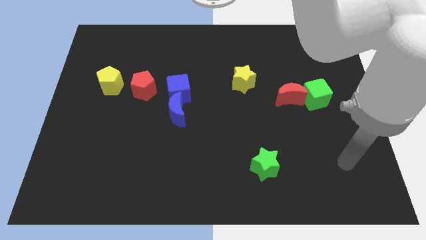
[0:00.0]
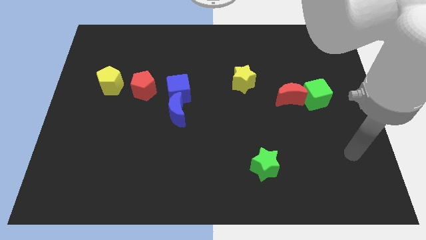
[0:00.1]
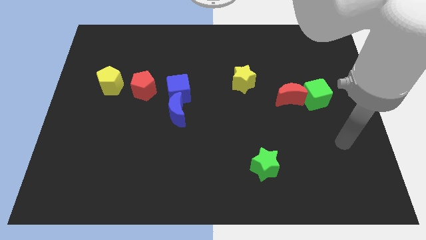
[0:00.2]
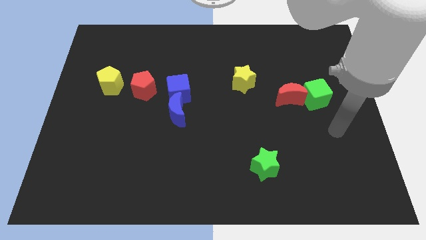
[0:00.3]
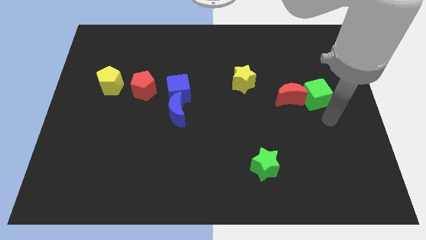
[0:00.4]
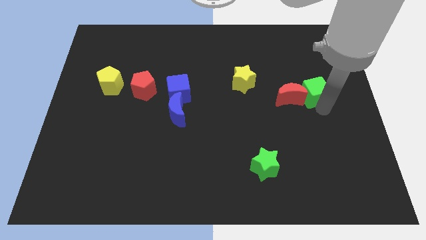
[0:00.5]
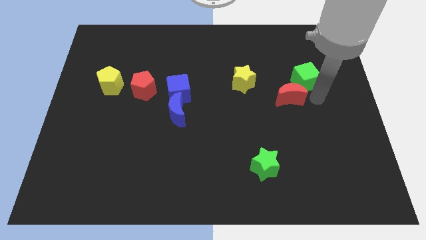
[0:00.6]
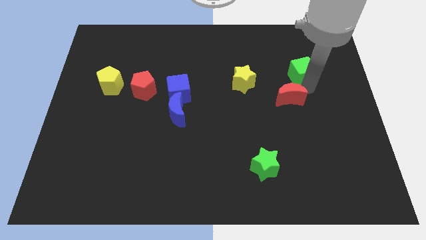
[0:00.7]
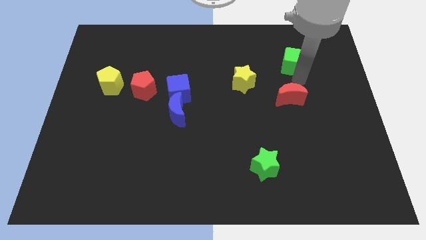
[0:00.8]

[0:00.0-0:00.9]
pull the red moon apart from the green cube

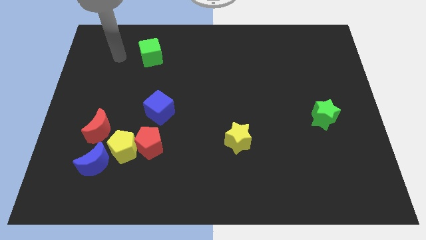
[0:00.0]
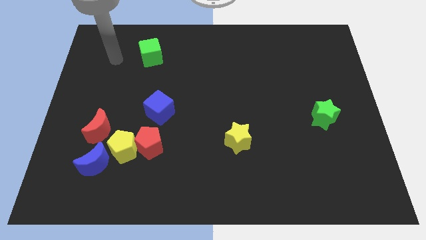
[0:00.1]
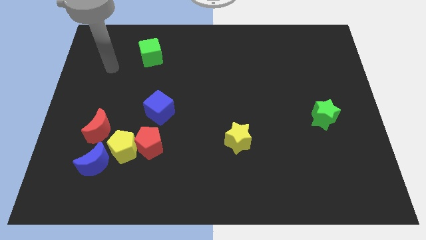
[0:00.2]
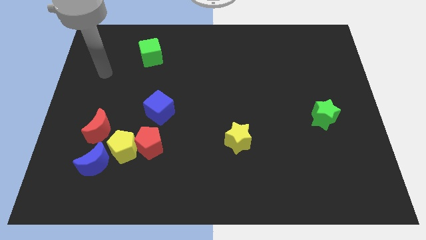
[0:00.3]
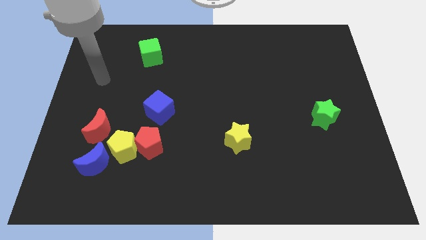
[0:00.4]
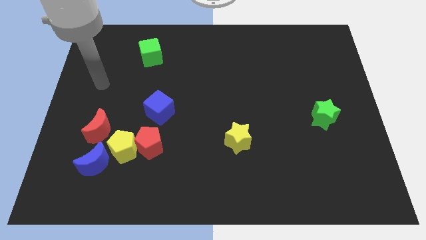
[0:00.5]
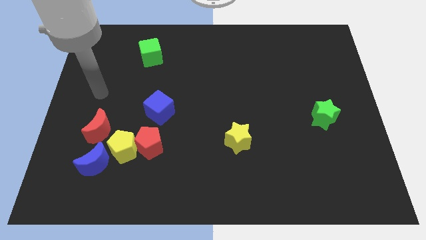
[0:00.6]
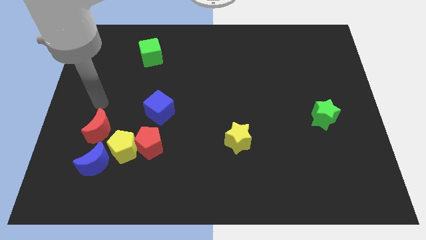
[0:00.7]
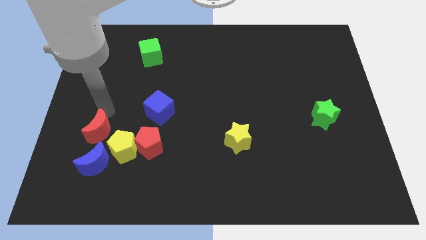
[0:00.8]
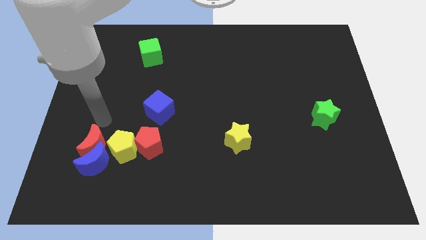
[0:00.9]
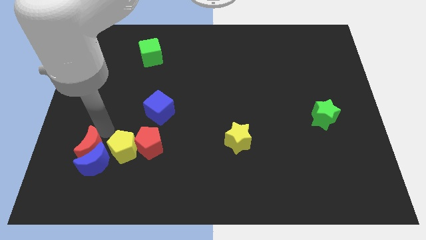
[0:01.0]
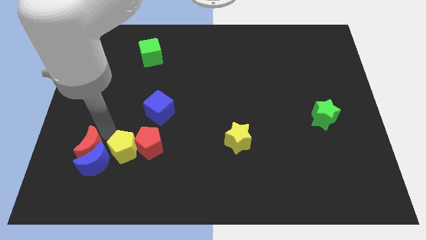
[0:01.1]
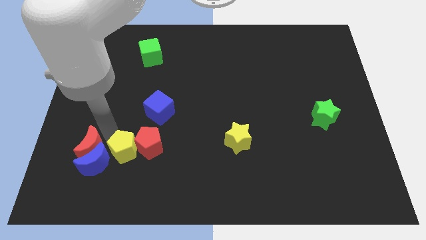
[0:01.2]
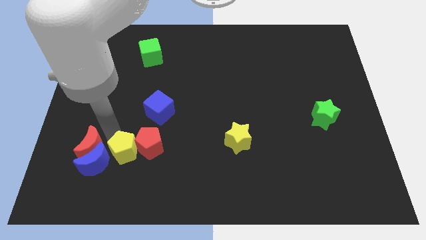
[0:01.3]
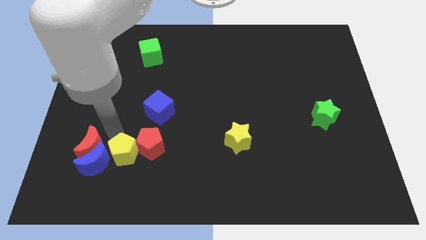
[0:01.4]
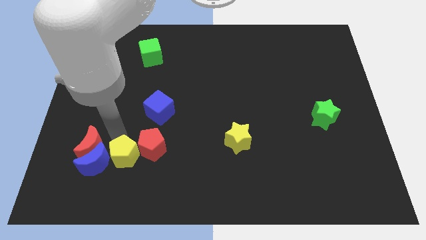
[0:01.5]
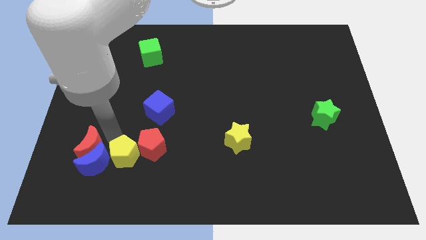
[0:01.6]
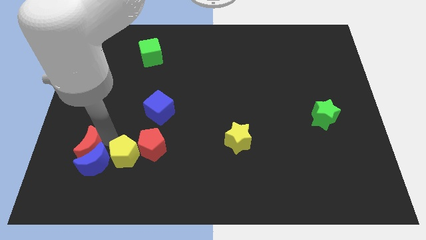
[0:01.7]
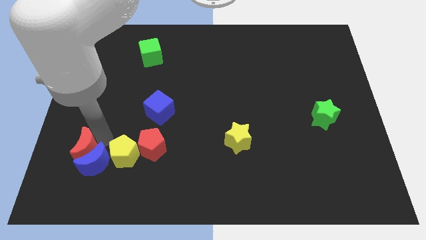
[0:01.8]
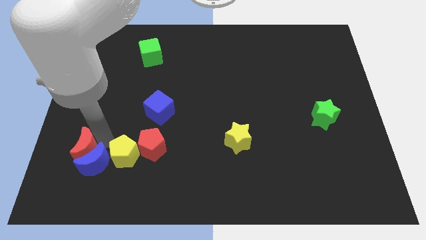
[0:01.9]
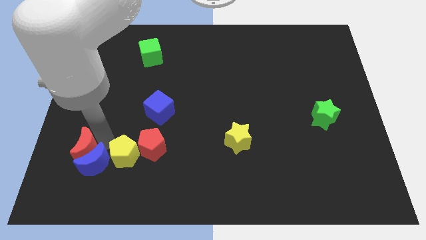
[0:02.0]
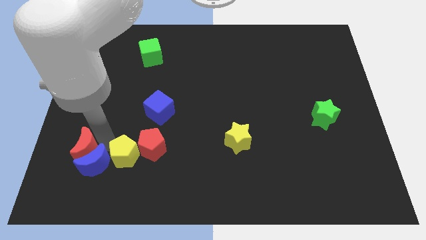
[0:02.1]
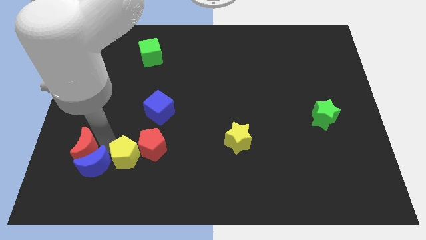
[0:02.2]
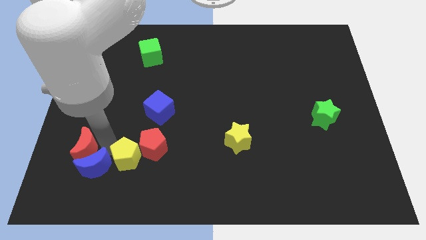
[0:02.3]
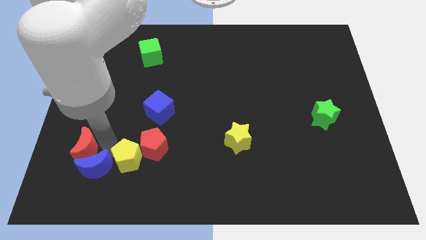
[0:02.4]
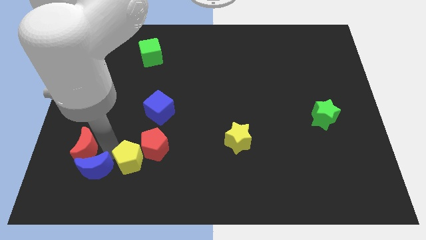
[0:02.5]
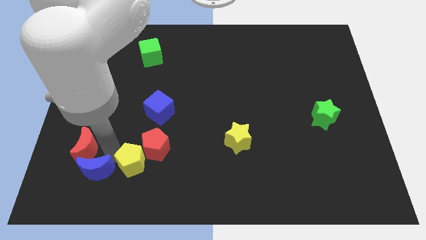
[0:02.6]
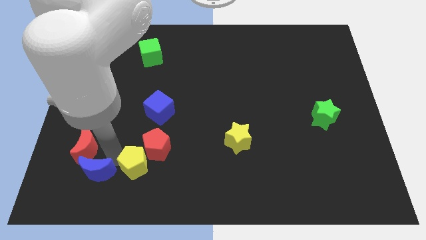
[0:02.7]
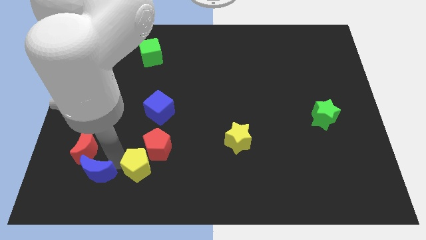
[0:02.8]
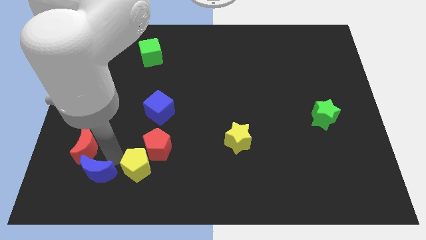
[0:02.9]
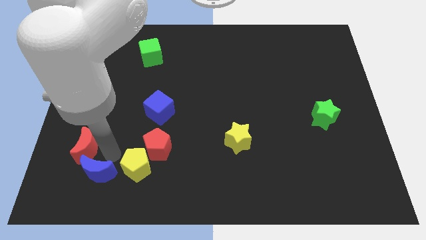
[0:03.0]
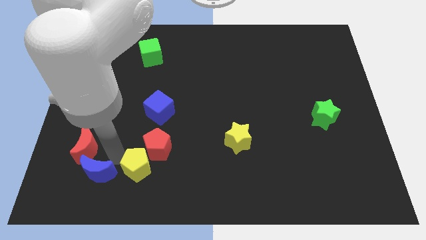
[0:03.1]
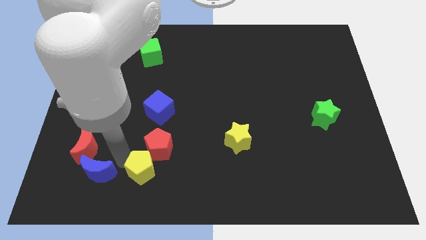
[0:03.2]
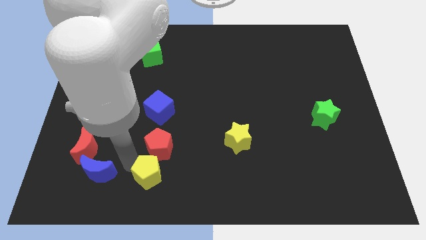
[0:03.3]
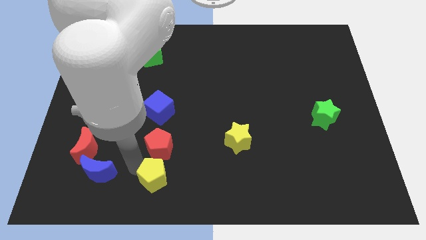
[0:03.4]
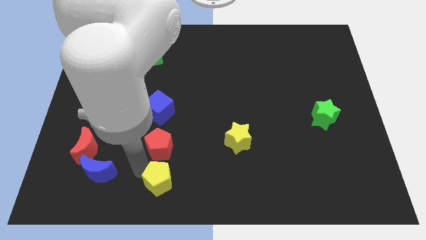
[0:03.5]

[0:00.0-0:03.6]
move the yellow pentagon away from the red pentagon, blue moon, and red moon

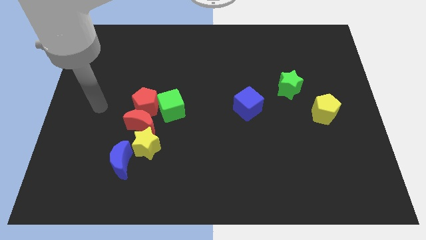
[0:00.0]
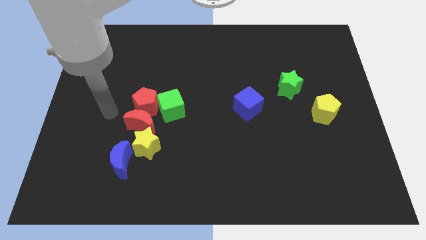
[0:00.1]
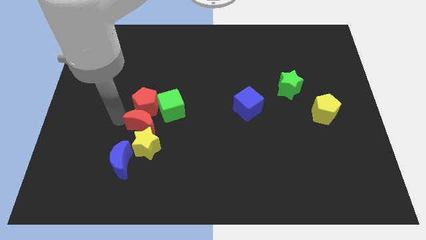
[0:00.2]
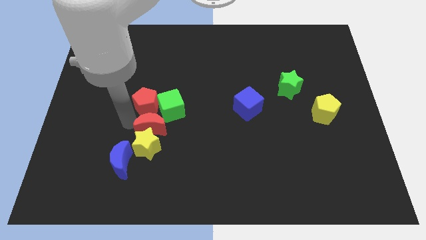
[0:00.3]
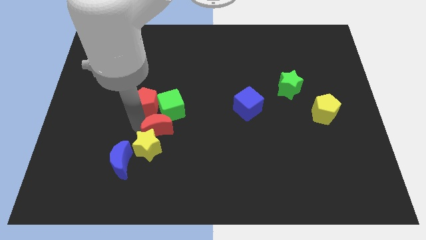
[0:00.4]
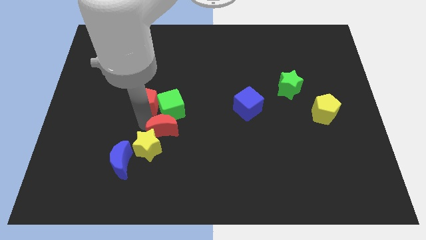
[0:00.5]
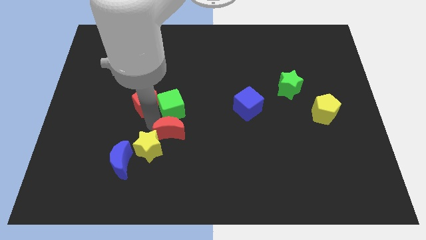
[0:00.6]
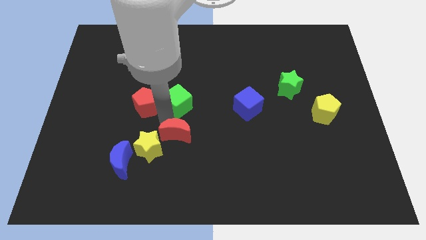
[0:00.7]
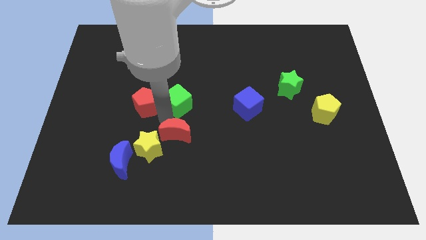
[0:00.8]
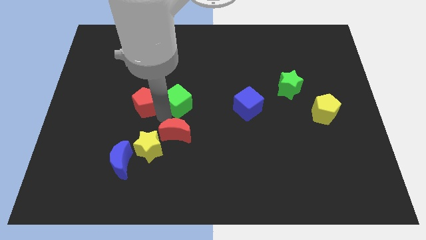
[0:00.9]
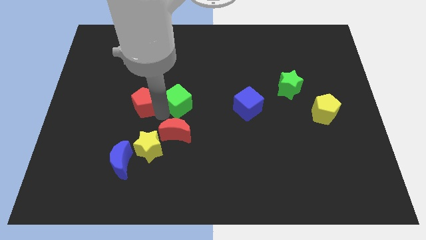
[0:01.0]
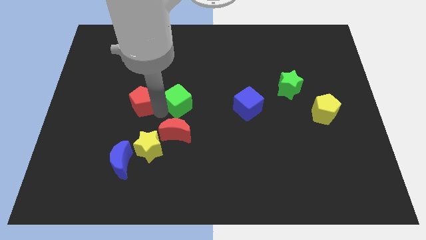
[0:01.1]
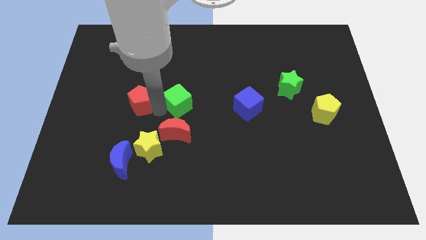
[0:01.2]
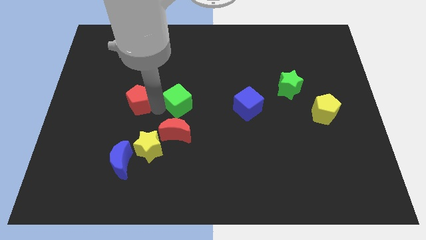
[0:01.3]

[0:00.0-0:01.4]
pull the red pentagon apart from the red moon and green cube

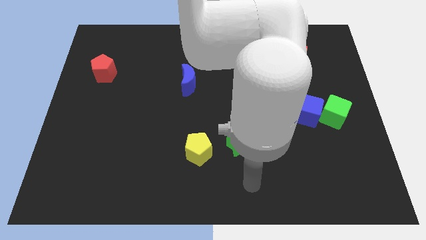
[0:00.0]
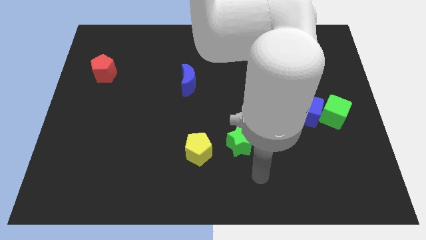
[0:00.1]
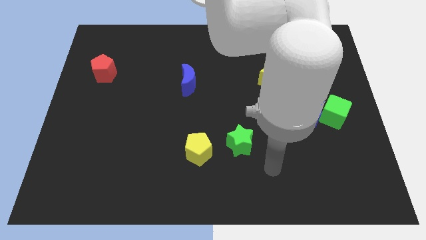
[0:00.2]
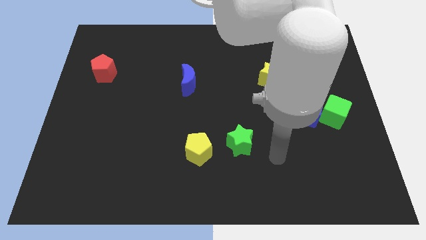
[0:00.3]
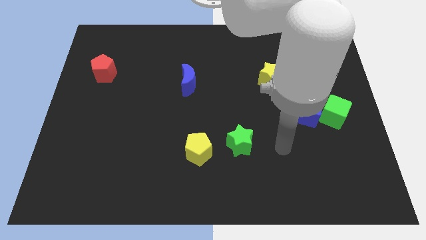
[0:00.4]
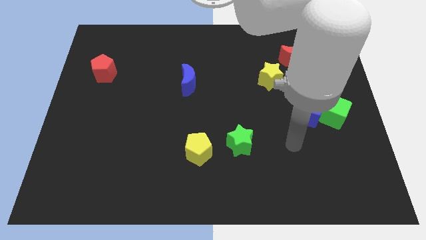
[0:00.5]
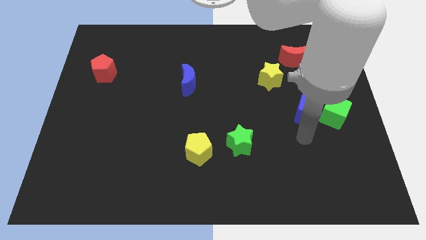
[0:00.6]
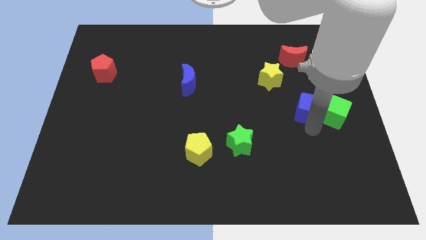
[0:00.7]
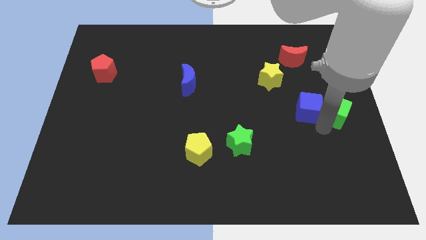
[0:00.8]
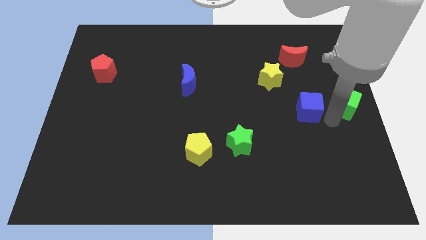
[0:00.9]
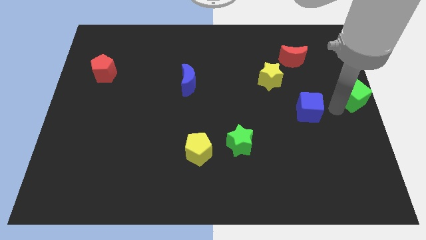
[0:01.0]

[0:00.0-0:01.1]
pull the blue cube apart from the green cube

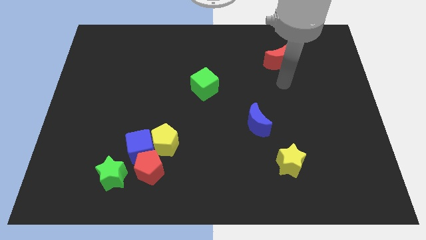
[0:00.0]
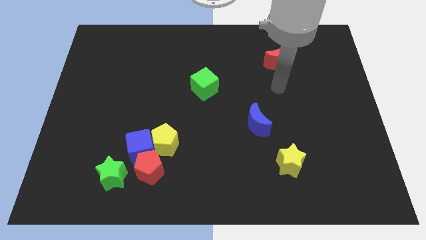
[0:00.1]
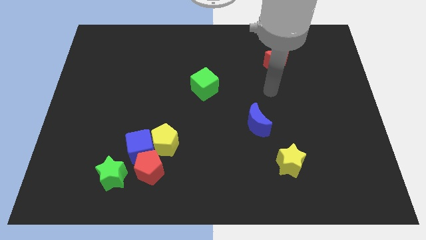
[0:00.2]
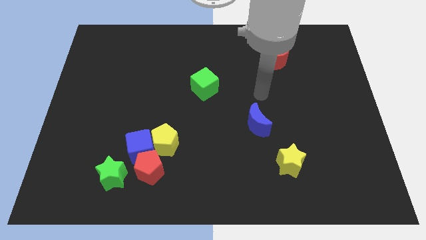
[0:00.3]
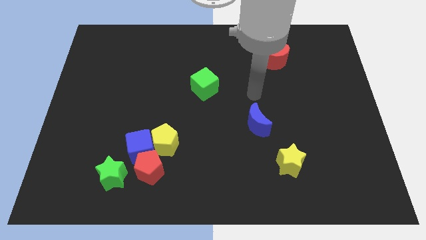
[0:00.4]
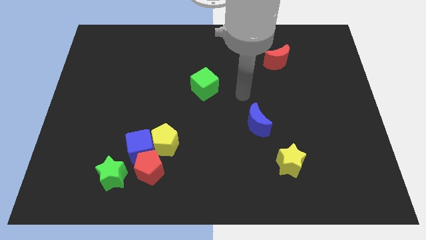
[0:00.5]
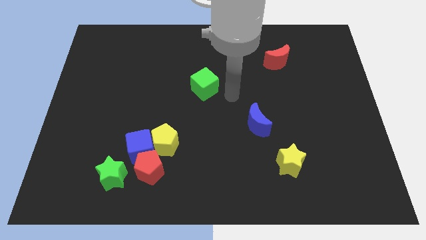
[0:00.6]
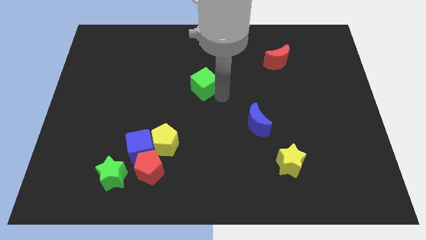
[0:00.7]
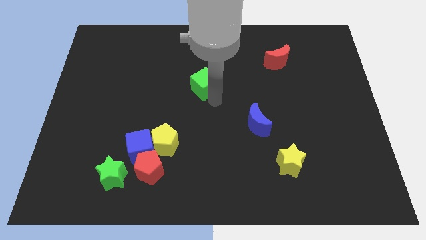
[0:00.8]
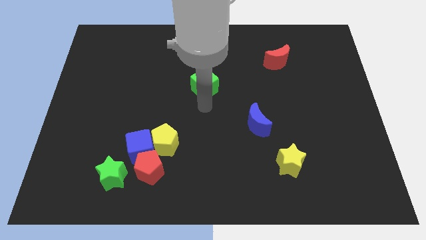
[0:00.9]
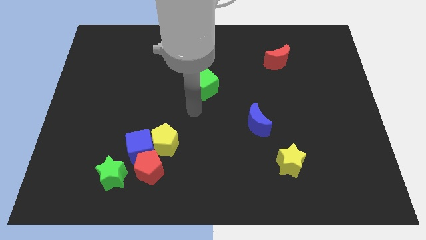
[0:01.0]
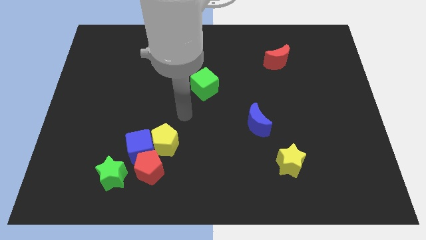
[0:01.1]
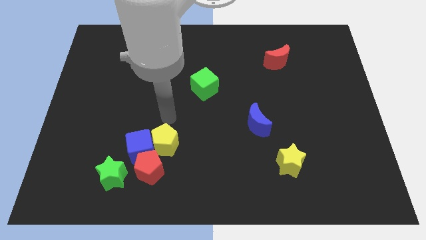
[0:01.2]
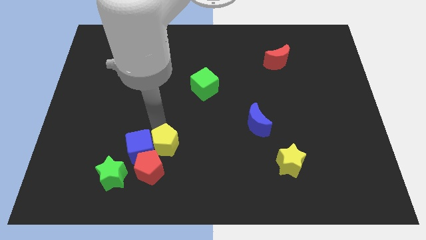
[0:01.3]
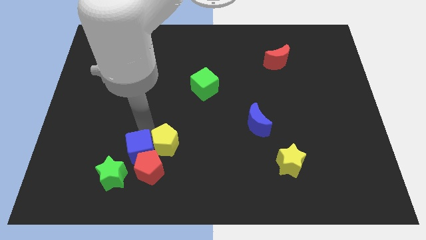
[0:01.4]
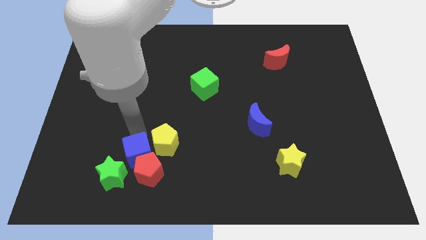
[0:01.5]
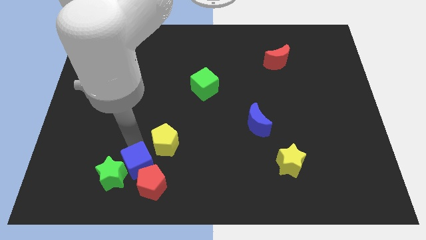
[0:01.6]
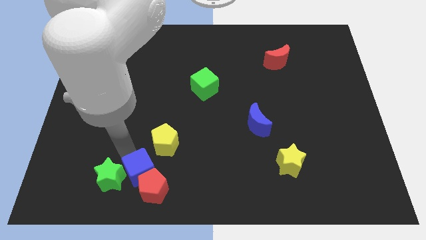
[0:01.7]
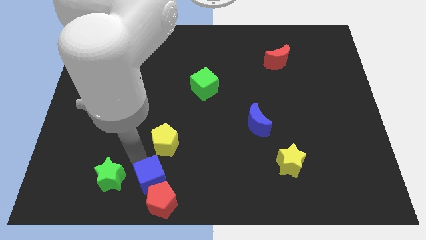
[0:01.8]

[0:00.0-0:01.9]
separate the yellow pentagon from the blue cube and red pentagon

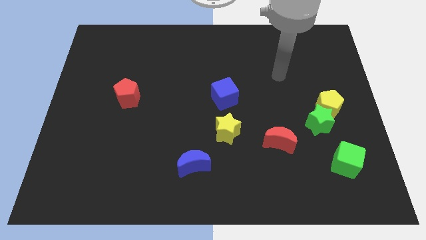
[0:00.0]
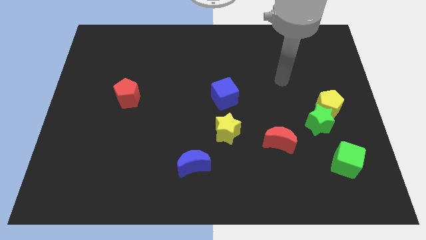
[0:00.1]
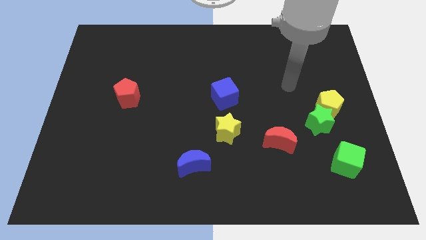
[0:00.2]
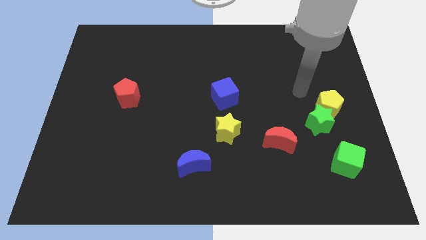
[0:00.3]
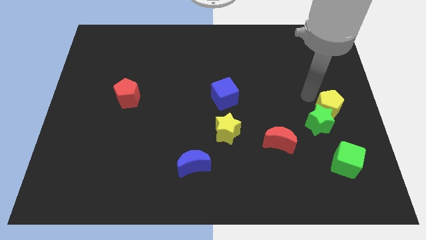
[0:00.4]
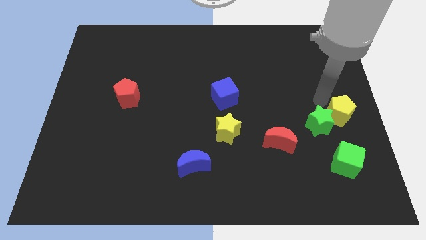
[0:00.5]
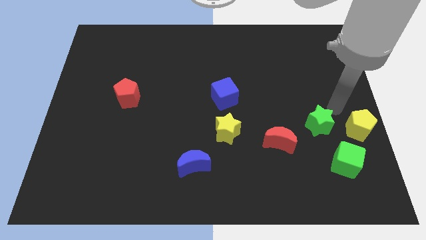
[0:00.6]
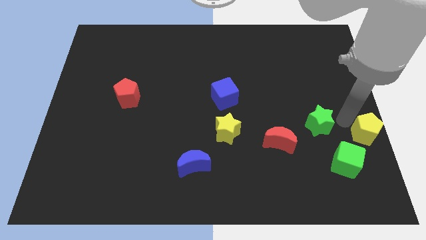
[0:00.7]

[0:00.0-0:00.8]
separate the green star from the yellow pentagon
